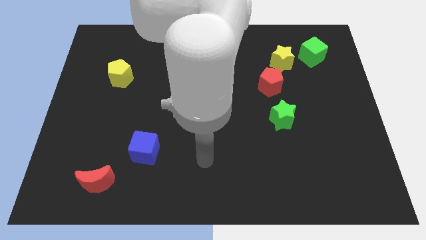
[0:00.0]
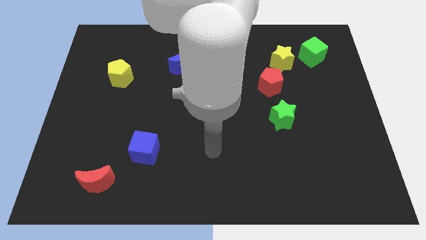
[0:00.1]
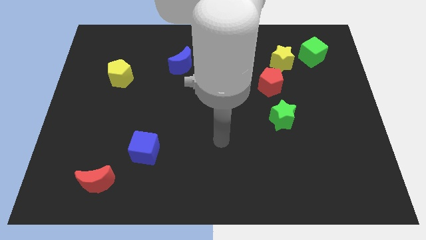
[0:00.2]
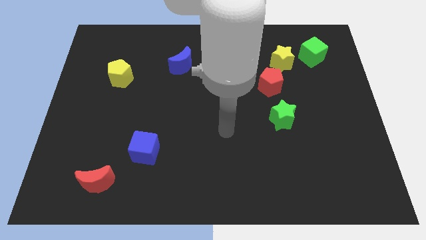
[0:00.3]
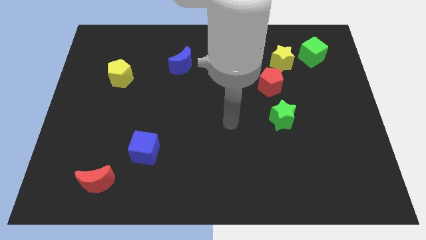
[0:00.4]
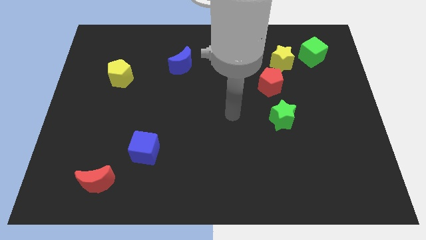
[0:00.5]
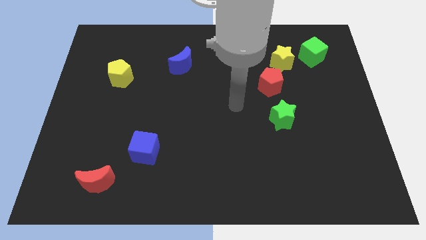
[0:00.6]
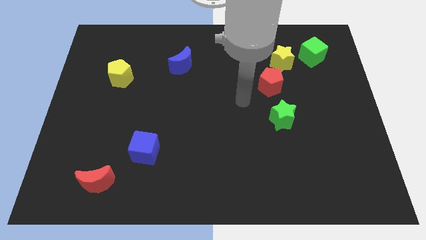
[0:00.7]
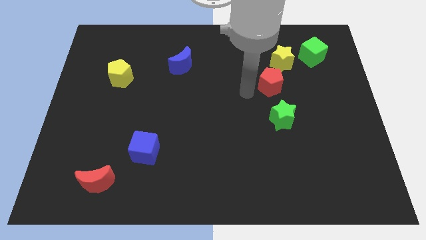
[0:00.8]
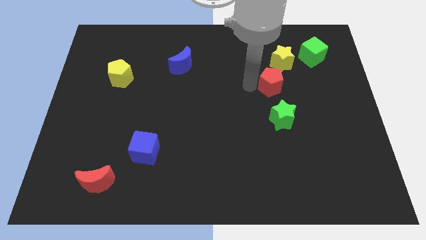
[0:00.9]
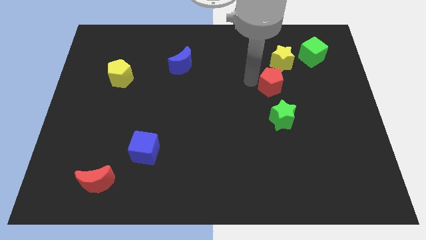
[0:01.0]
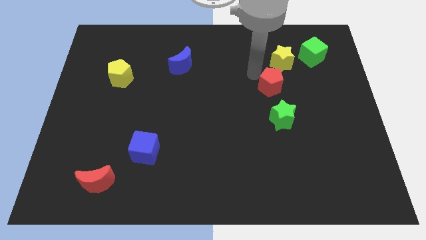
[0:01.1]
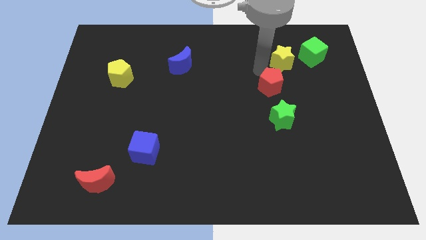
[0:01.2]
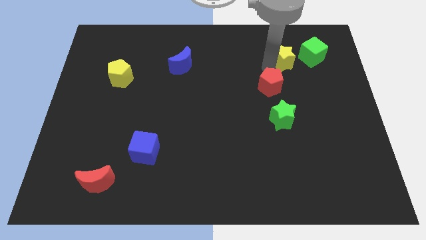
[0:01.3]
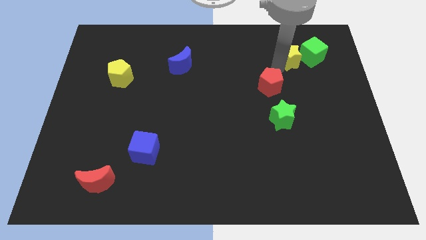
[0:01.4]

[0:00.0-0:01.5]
pull the red pentagon apart from the yellow star

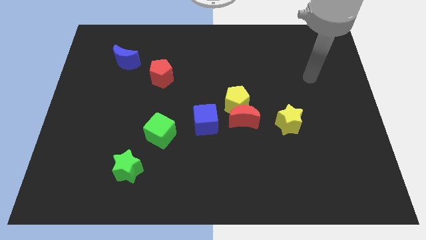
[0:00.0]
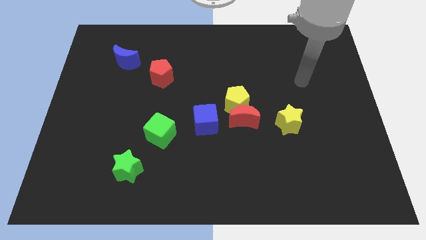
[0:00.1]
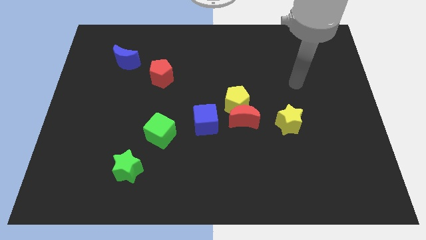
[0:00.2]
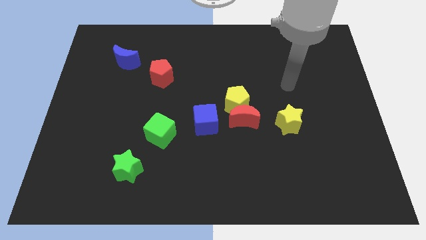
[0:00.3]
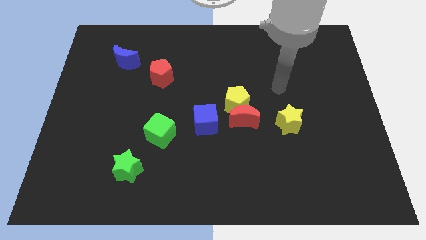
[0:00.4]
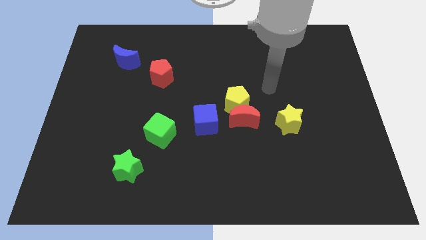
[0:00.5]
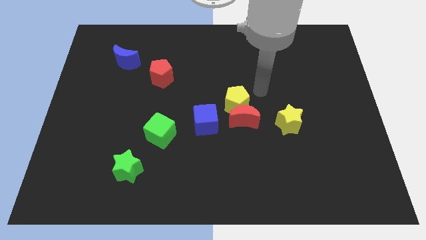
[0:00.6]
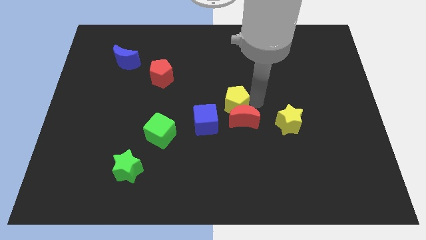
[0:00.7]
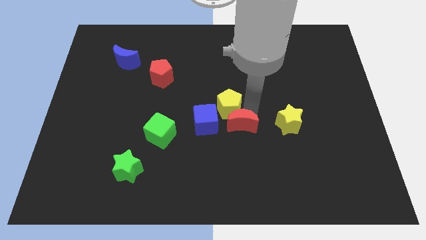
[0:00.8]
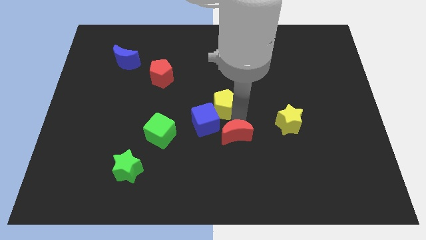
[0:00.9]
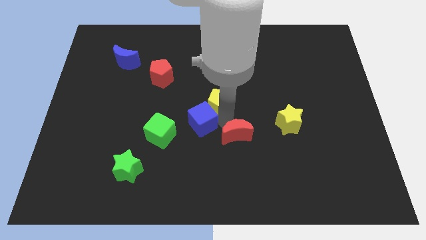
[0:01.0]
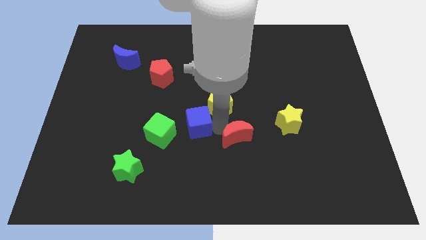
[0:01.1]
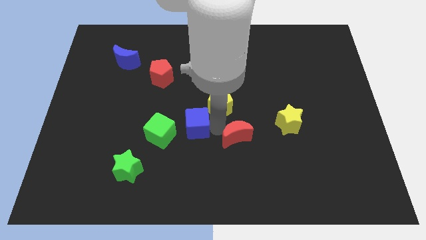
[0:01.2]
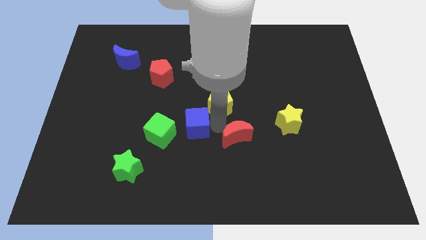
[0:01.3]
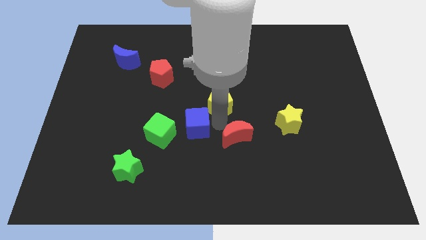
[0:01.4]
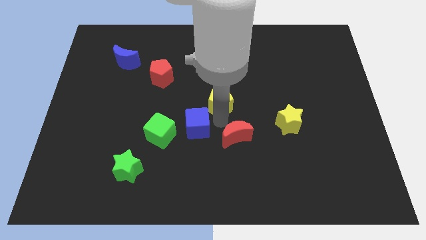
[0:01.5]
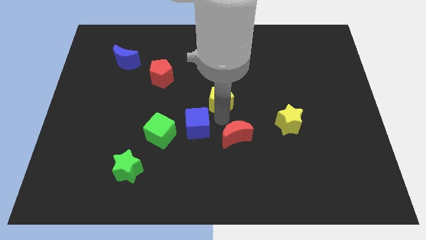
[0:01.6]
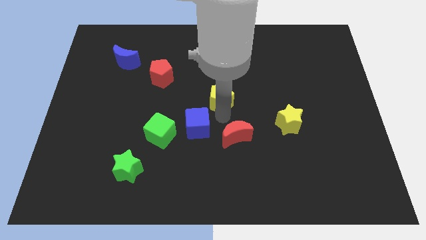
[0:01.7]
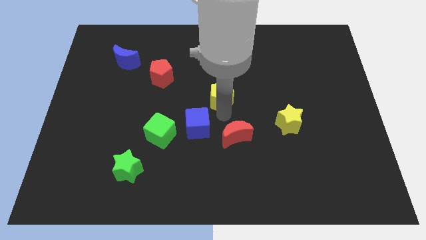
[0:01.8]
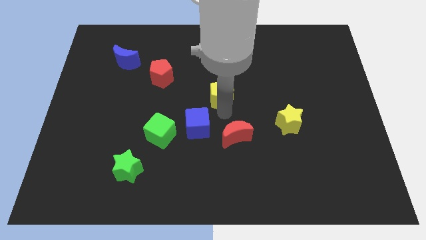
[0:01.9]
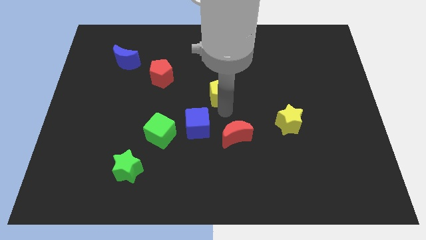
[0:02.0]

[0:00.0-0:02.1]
separate the yellow pentagon from the red moon and blue cube

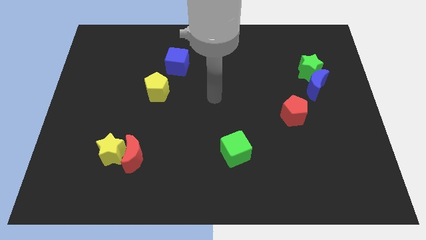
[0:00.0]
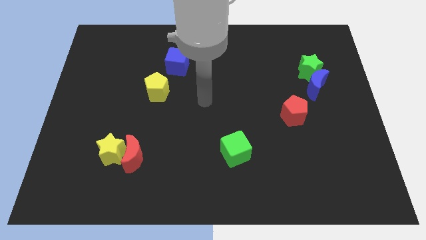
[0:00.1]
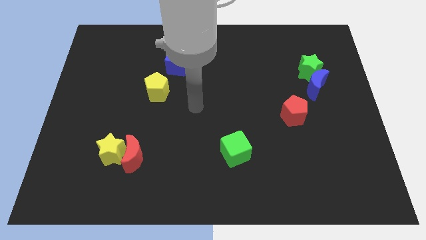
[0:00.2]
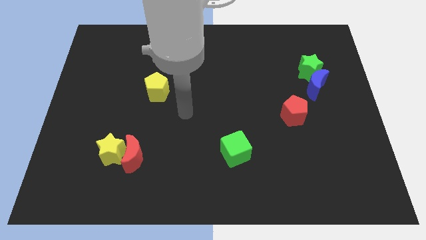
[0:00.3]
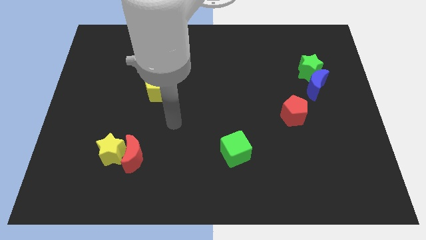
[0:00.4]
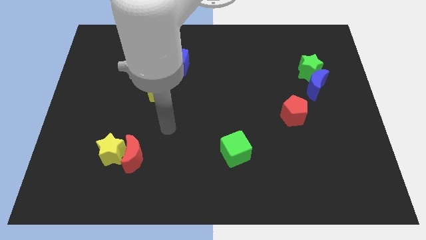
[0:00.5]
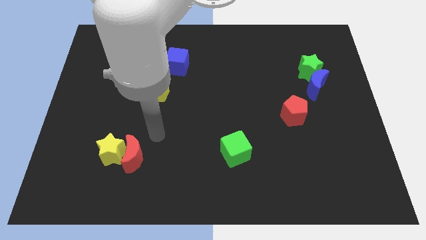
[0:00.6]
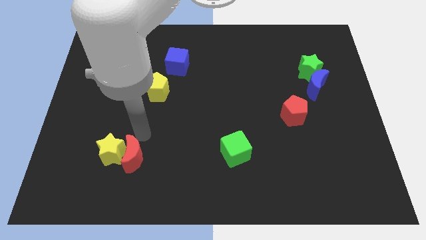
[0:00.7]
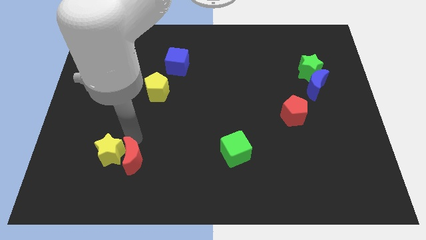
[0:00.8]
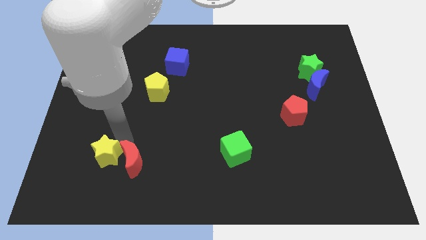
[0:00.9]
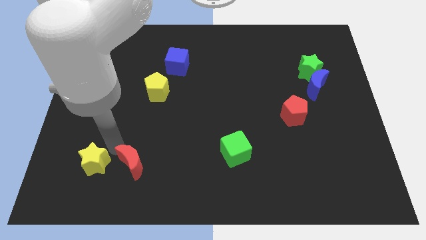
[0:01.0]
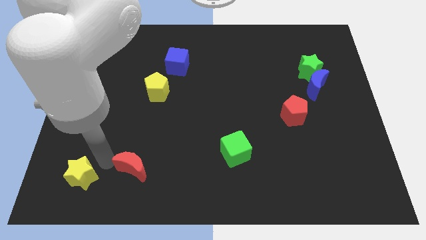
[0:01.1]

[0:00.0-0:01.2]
move the red moon away from the yellow star

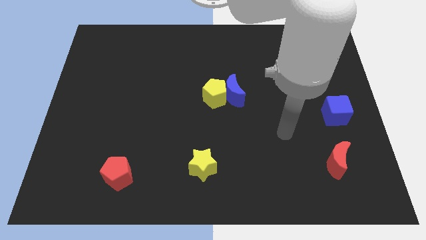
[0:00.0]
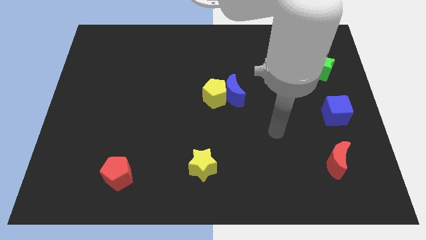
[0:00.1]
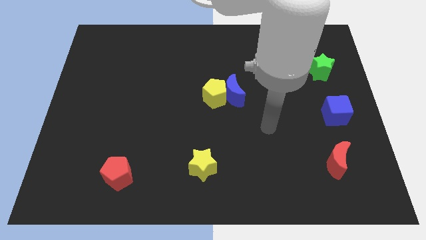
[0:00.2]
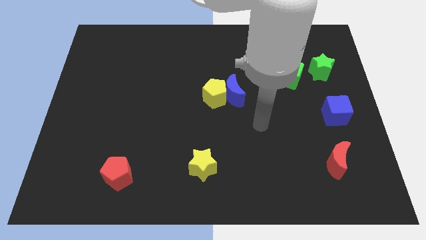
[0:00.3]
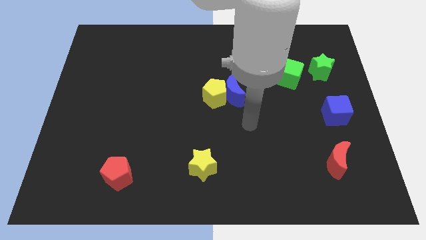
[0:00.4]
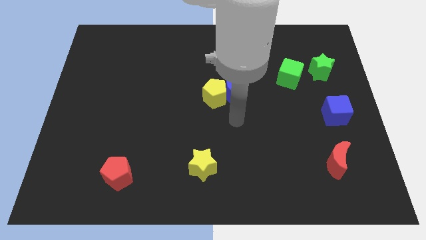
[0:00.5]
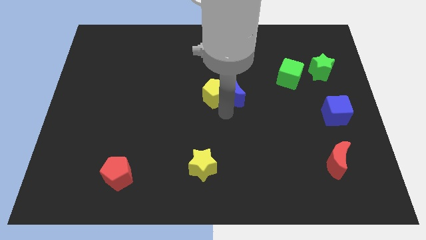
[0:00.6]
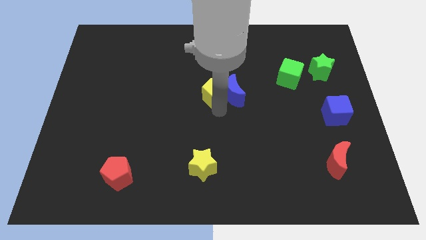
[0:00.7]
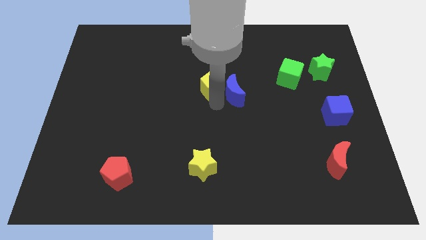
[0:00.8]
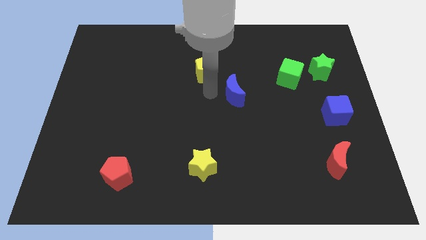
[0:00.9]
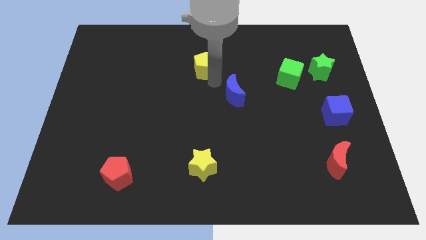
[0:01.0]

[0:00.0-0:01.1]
pull the blue moon apart from the yellow pentagon

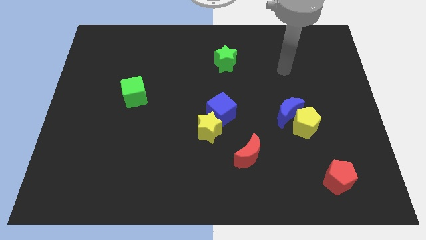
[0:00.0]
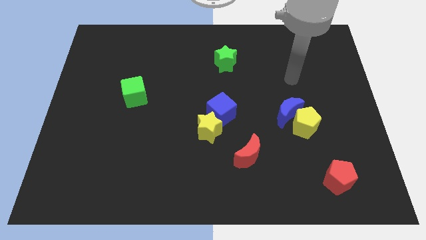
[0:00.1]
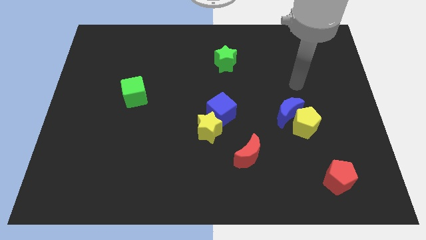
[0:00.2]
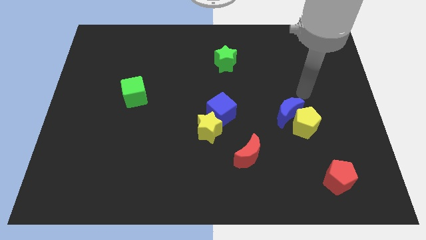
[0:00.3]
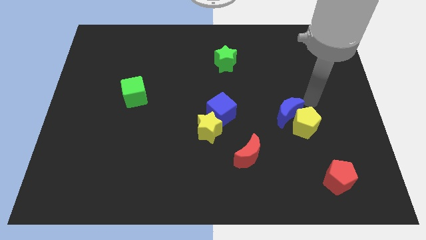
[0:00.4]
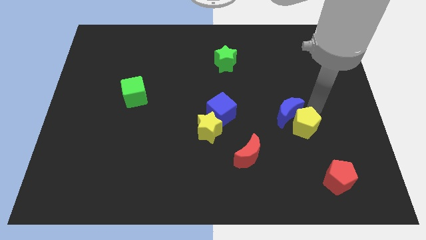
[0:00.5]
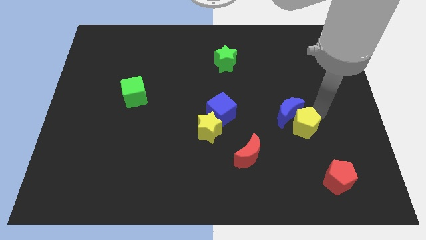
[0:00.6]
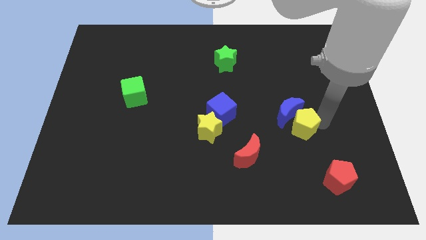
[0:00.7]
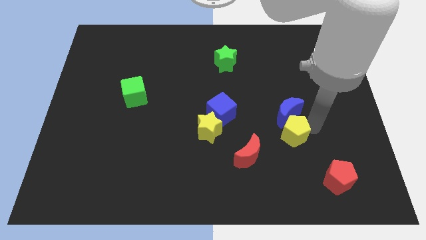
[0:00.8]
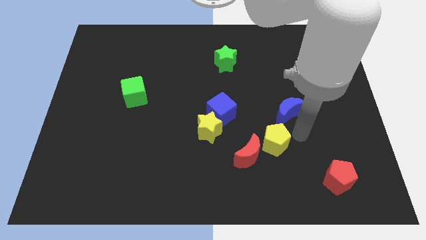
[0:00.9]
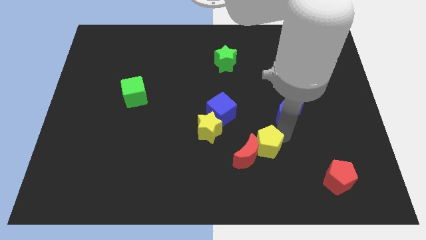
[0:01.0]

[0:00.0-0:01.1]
move the blue moon away from the yellow pentagon

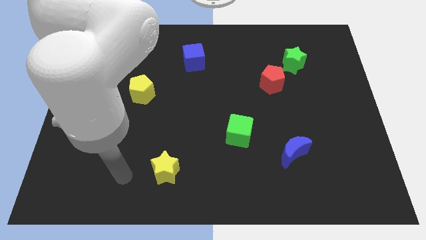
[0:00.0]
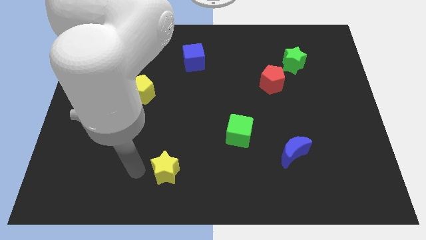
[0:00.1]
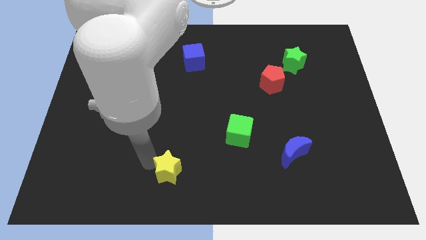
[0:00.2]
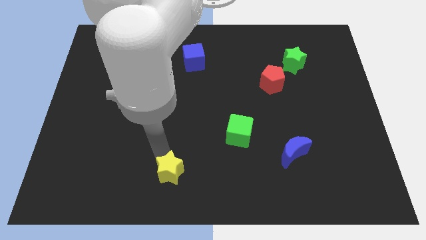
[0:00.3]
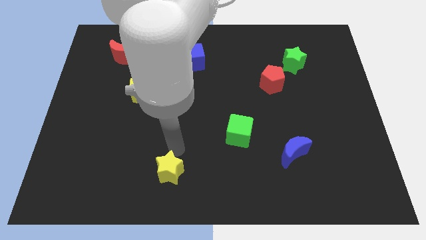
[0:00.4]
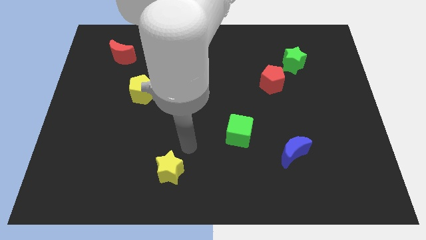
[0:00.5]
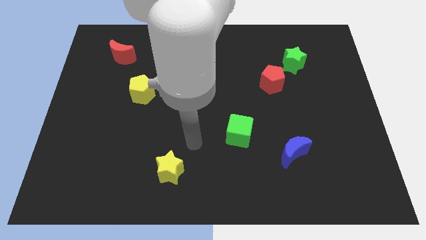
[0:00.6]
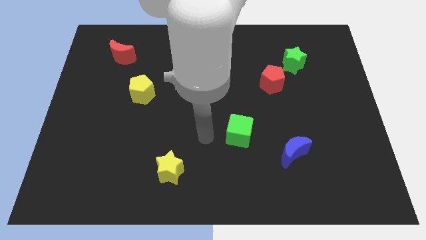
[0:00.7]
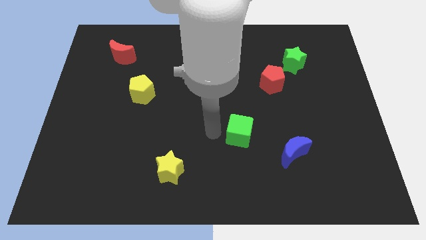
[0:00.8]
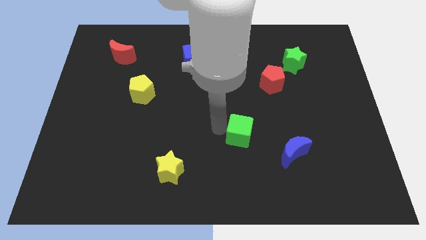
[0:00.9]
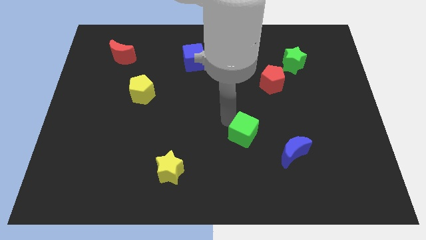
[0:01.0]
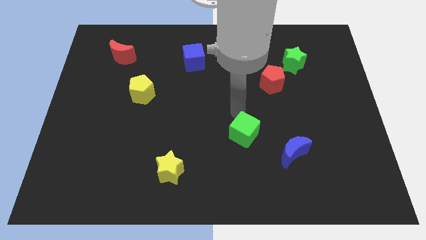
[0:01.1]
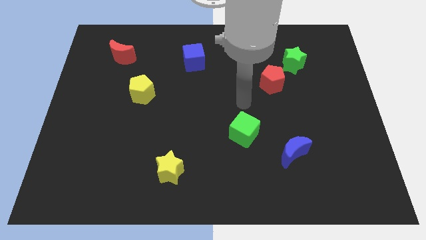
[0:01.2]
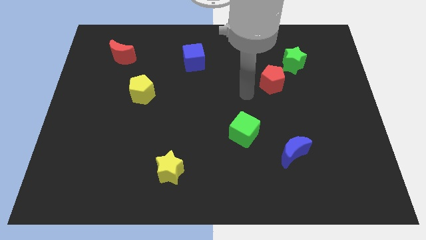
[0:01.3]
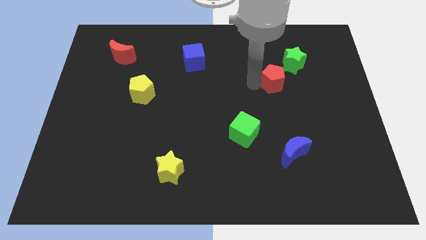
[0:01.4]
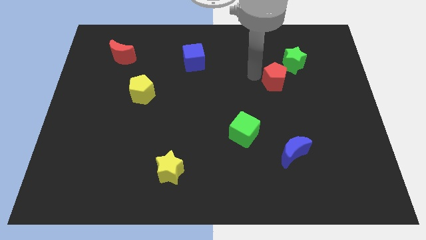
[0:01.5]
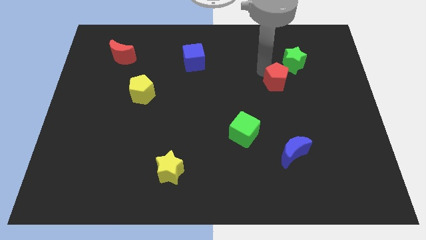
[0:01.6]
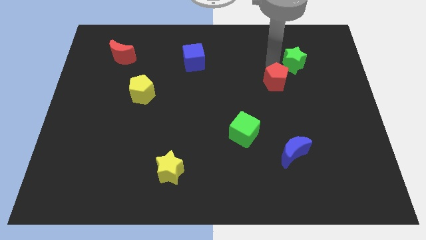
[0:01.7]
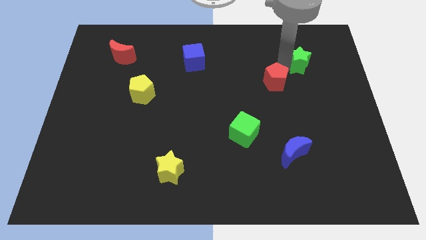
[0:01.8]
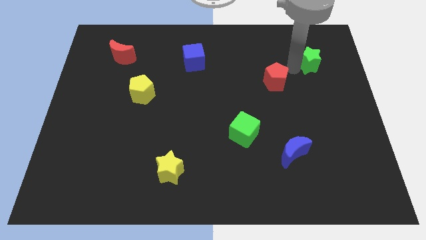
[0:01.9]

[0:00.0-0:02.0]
pull the red pentagon apart from the green star

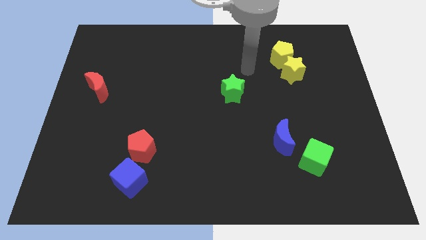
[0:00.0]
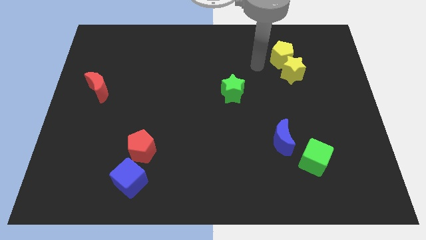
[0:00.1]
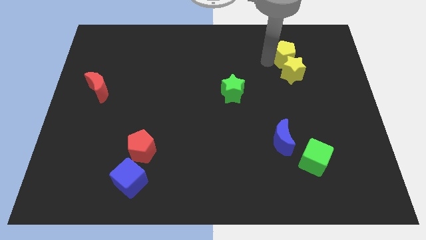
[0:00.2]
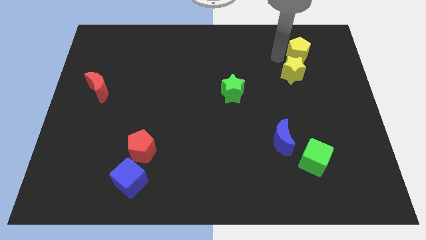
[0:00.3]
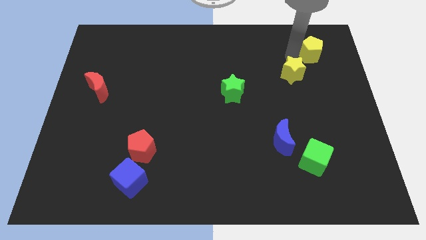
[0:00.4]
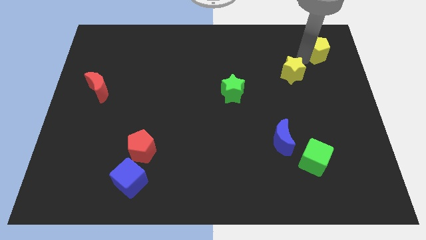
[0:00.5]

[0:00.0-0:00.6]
separate the yellow star from the yellow pentagon
